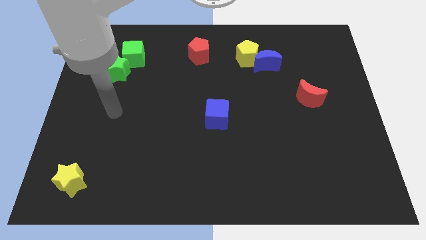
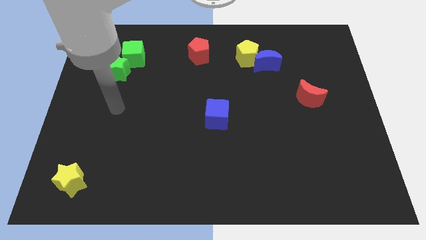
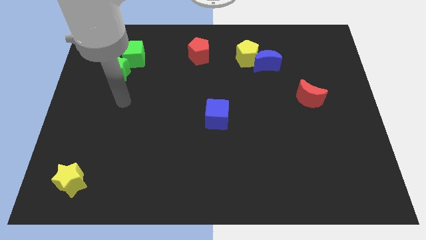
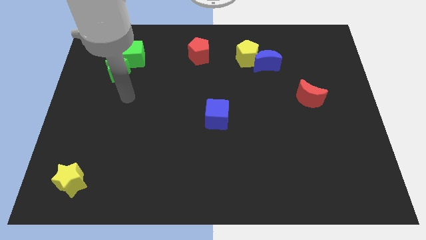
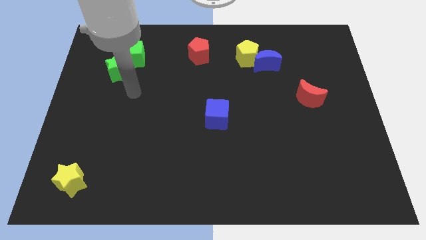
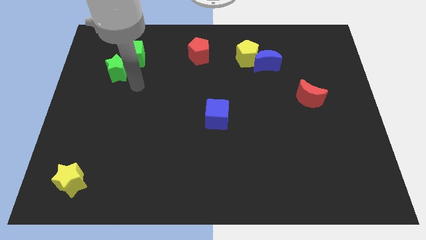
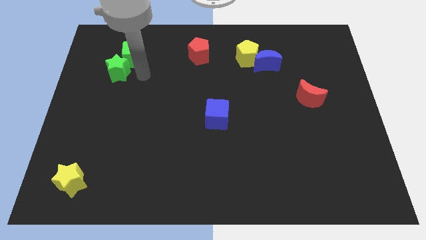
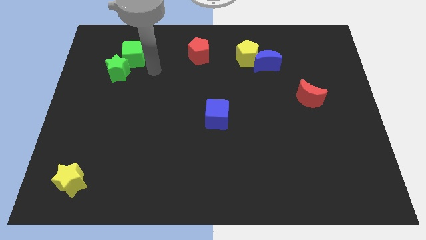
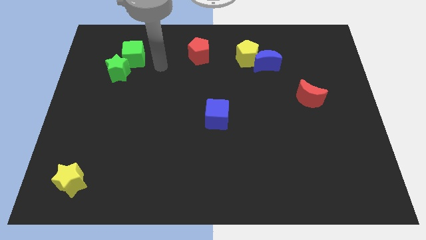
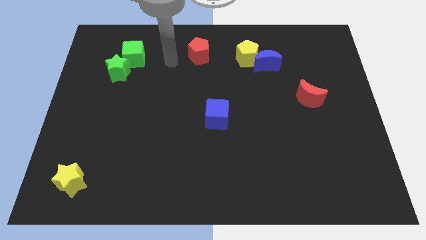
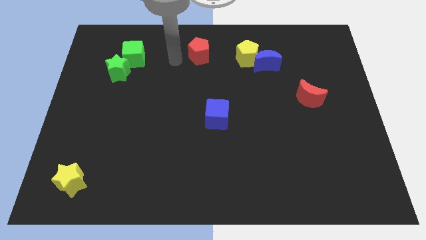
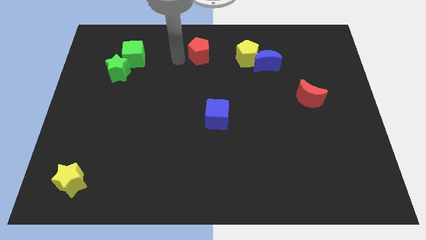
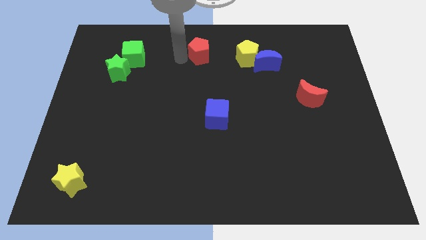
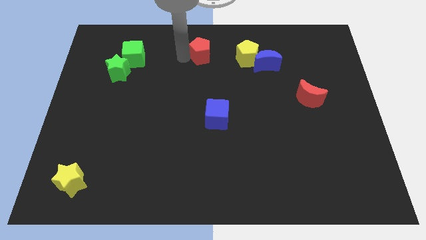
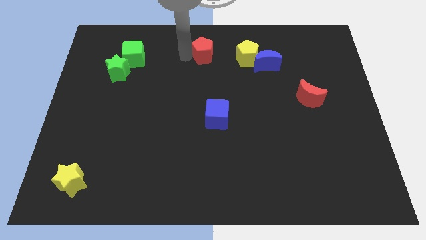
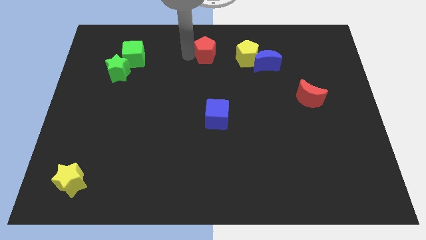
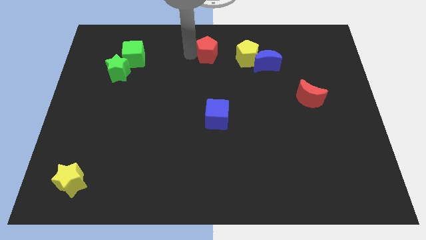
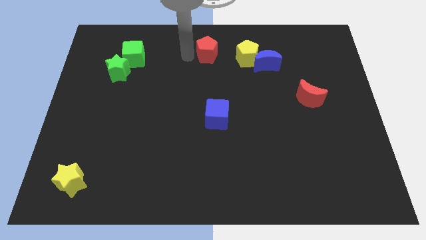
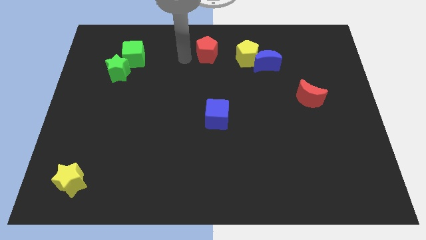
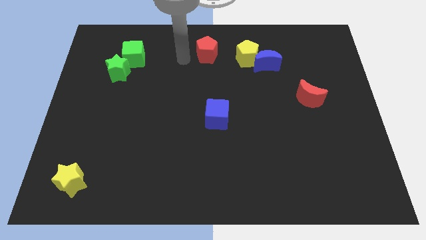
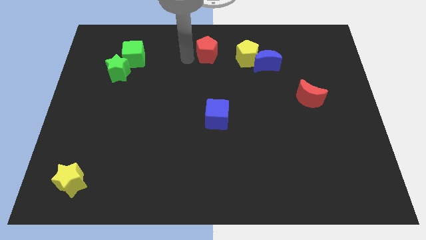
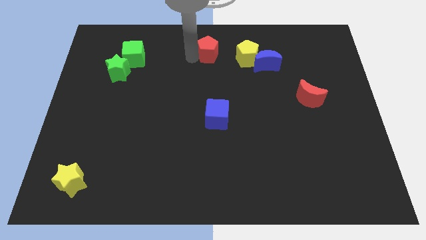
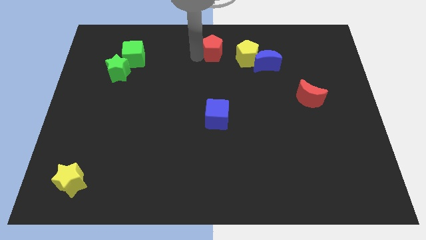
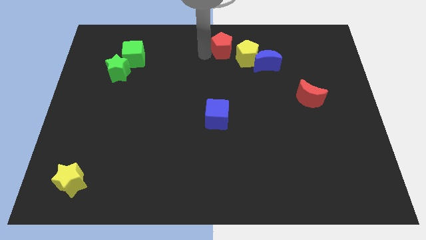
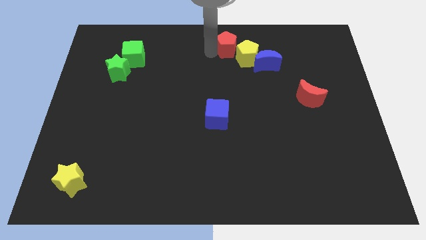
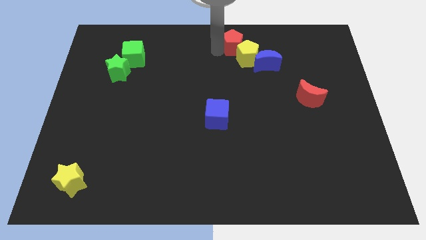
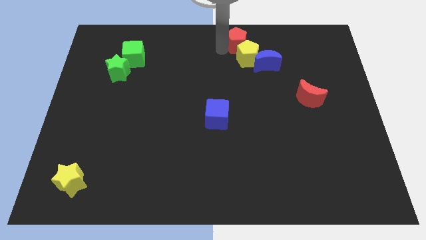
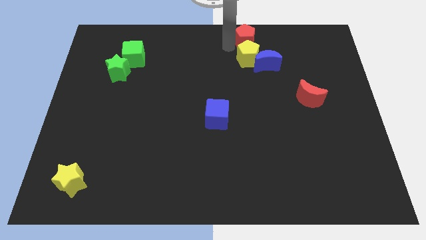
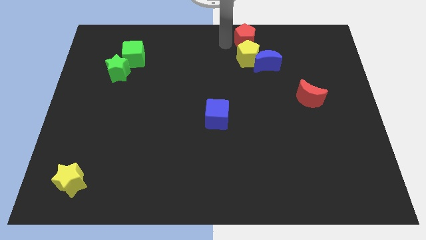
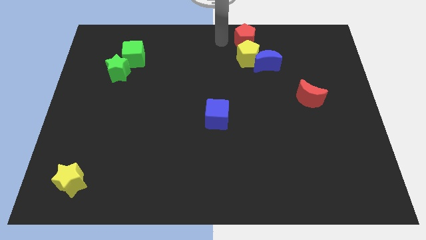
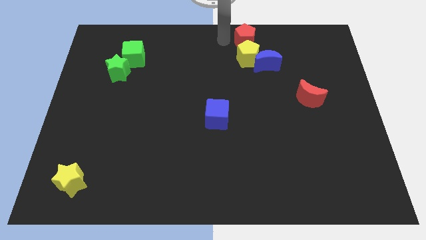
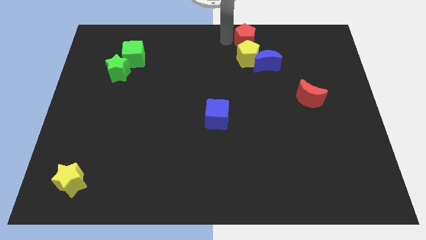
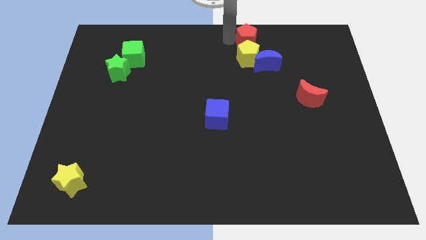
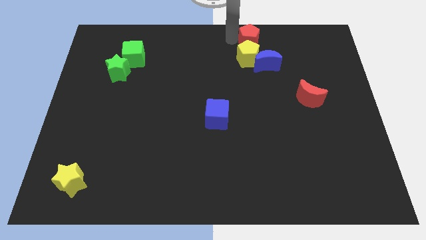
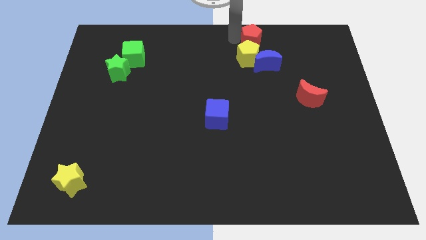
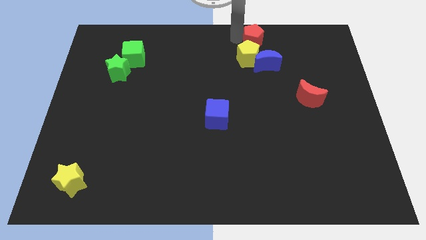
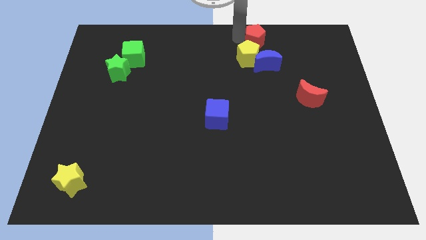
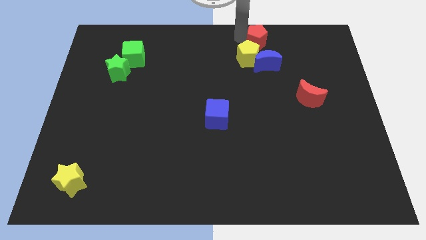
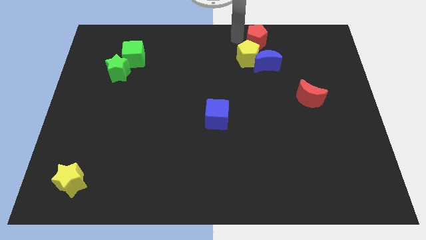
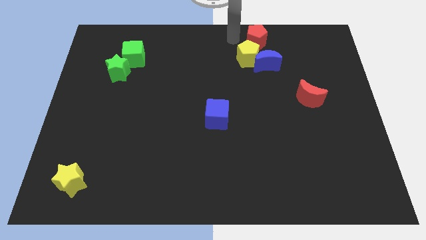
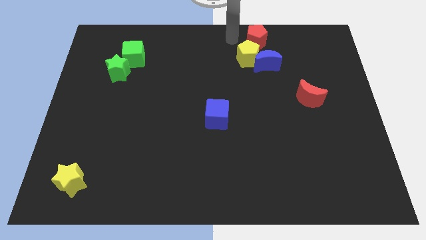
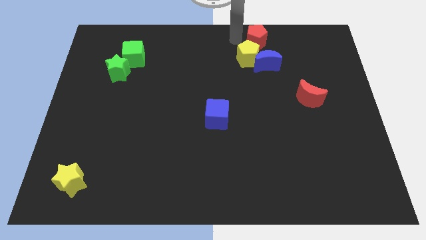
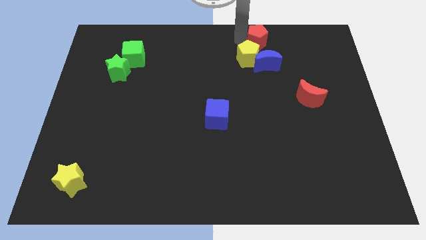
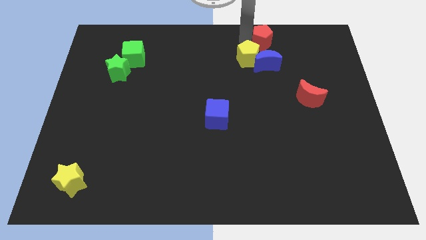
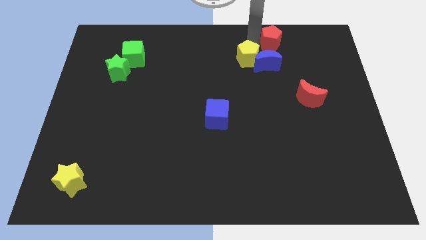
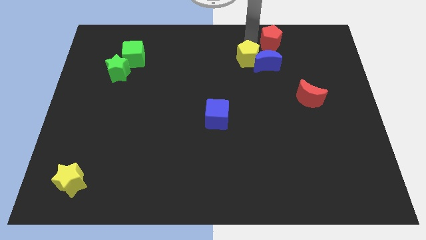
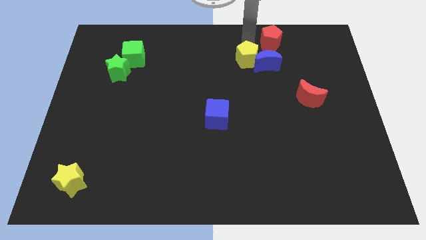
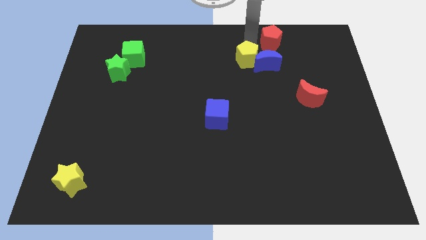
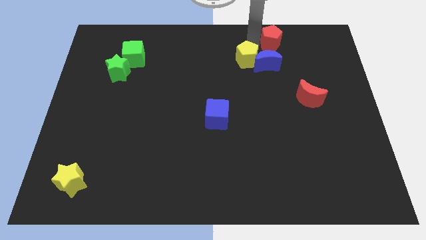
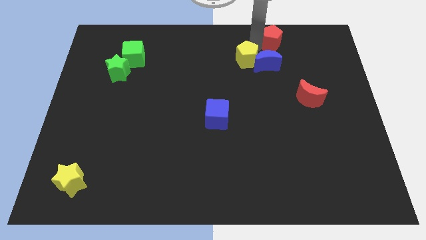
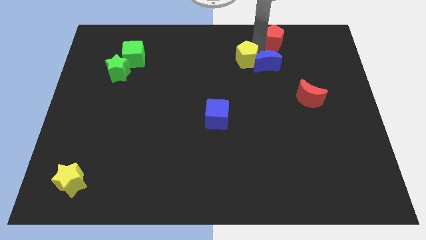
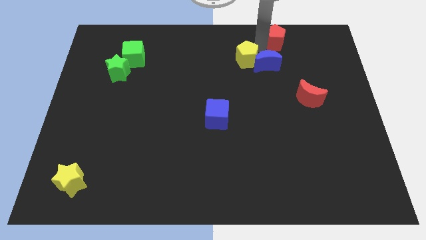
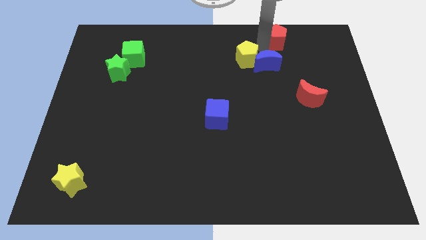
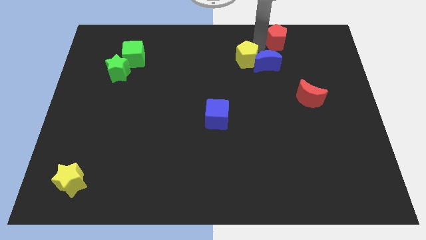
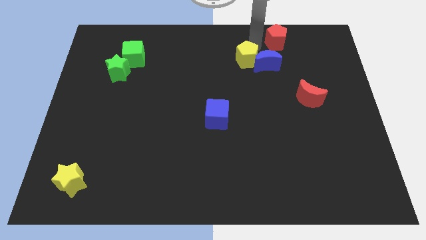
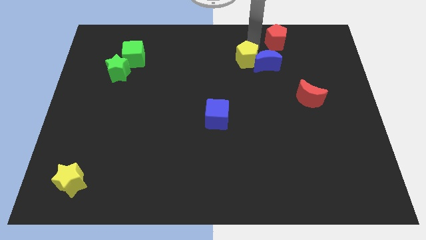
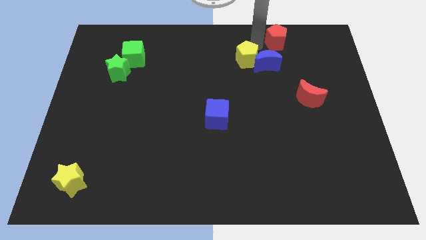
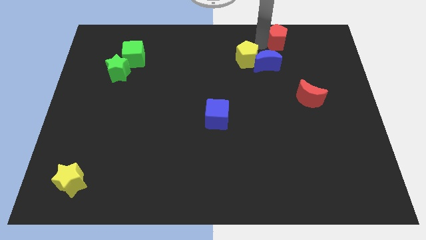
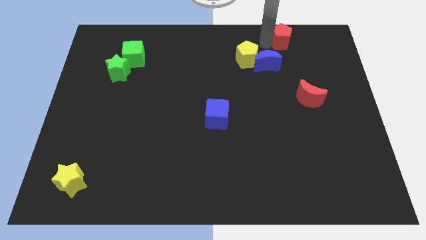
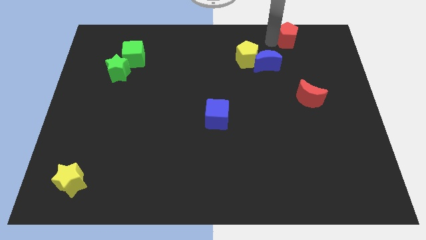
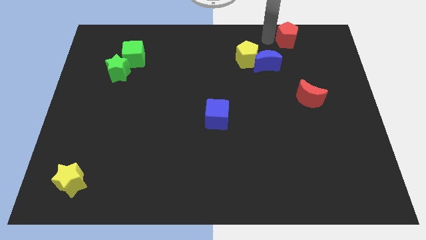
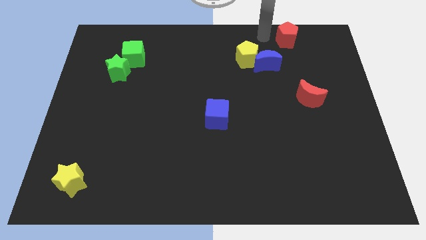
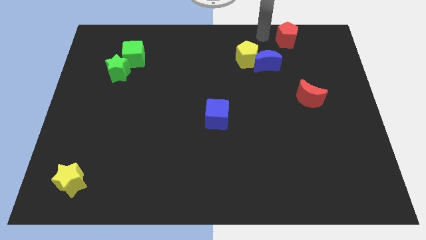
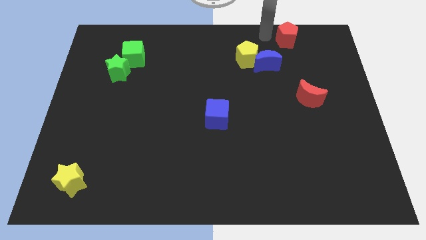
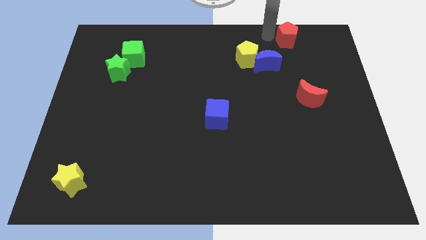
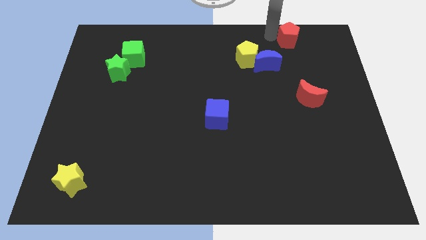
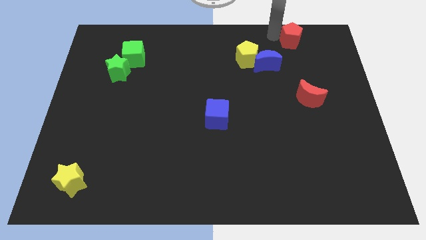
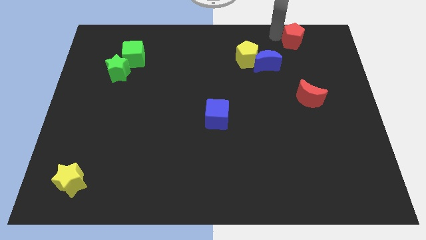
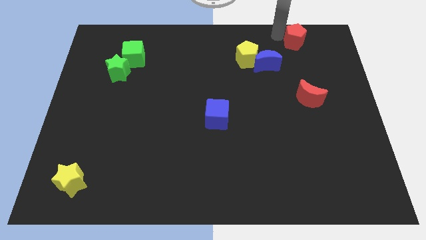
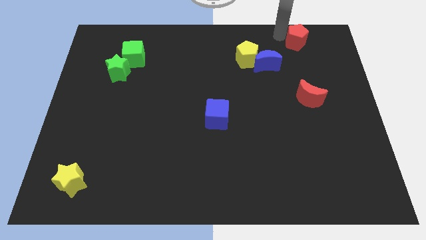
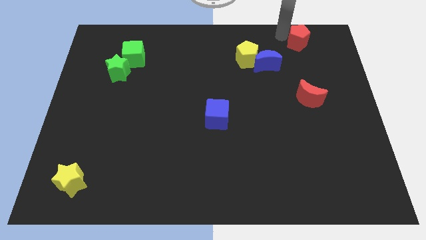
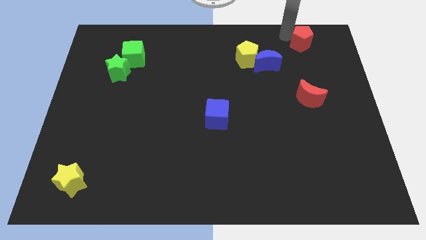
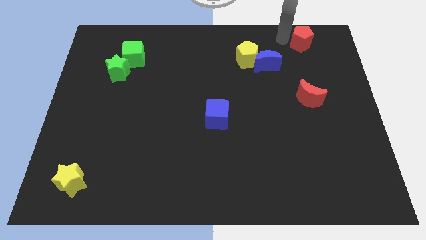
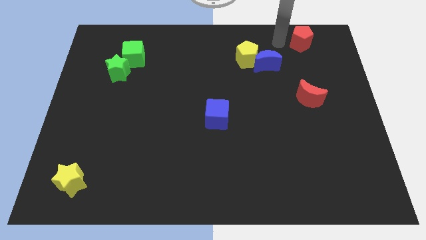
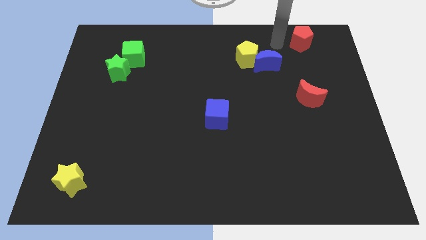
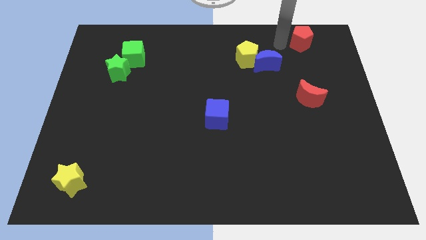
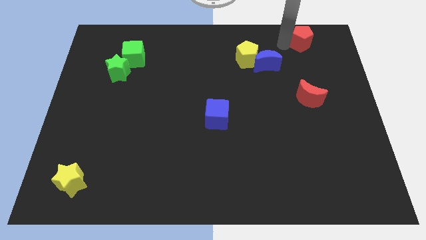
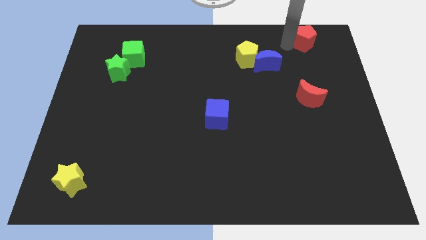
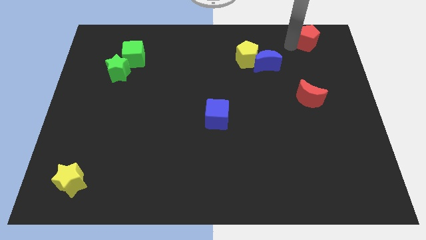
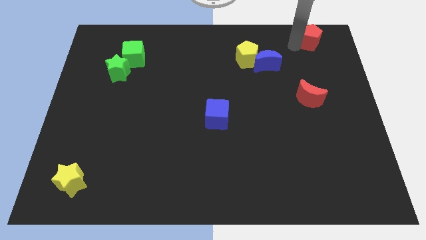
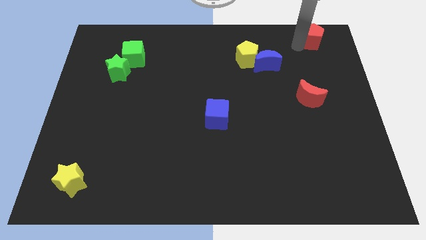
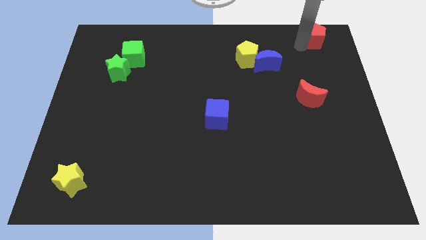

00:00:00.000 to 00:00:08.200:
slide the red pentagon to the top right of the board
